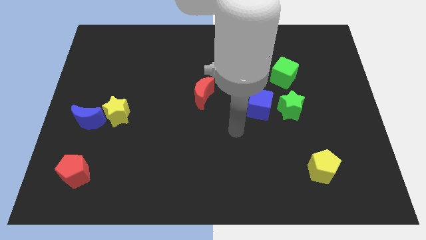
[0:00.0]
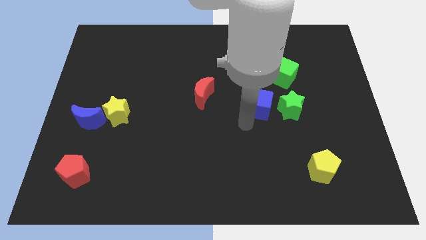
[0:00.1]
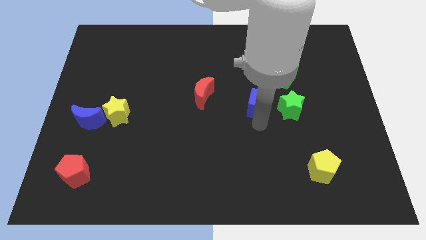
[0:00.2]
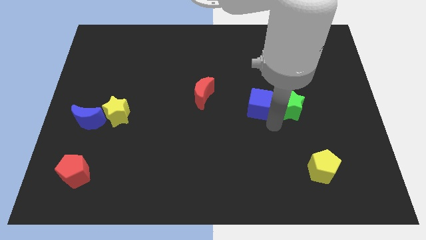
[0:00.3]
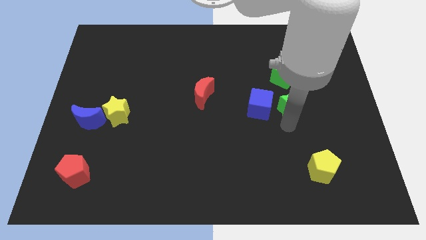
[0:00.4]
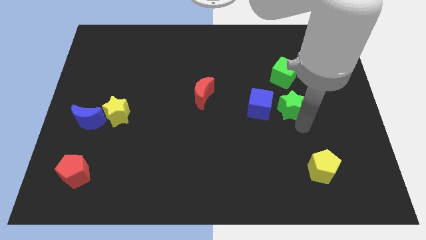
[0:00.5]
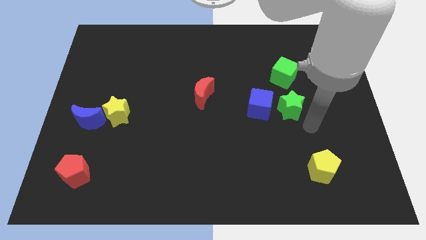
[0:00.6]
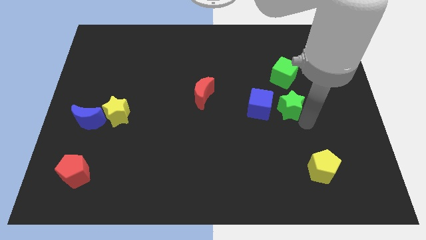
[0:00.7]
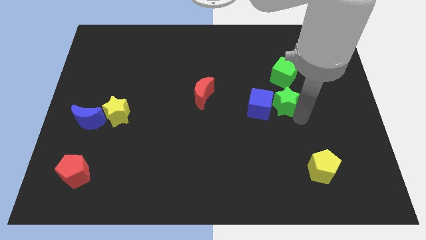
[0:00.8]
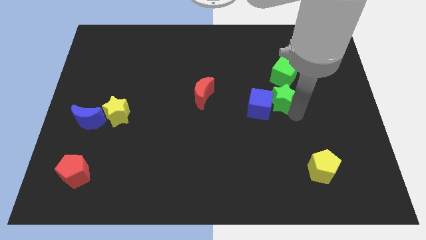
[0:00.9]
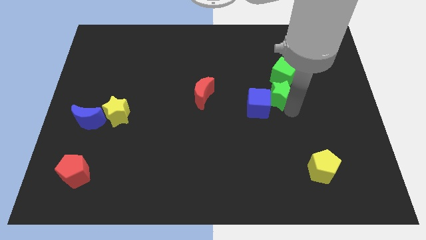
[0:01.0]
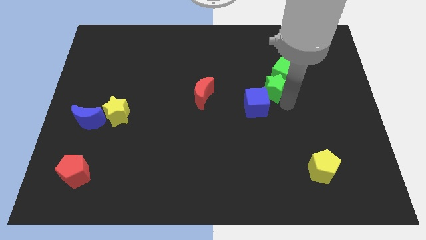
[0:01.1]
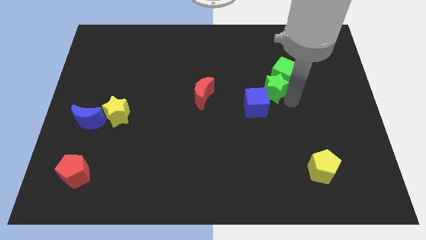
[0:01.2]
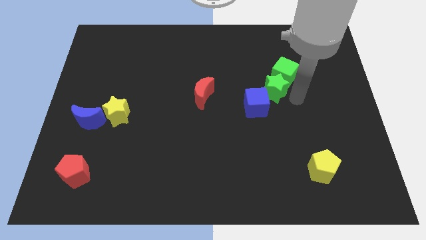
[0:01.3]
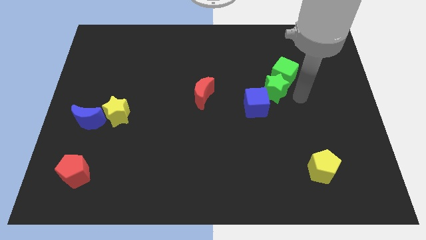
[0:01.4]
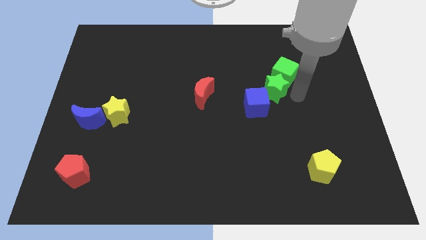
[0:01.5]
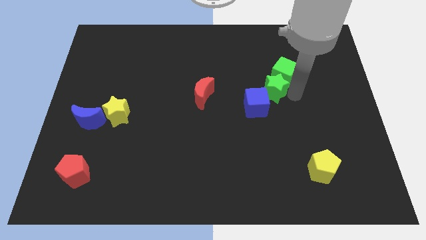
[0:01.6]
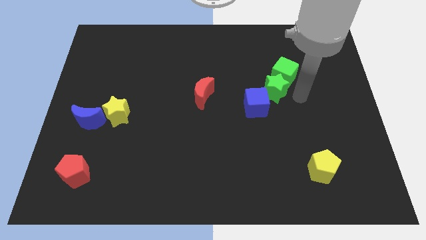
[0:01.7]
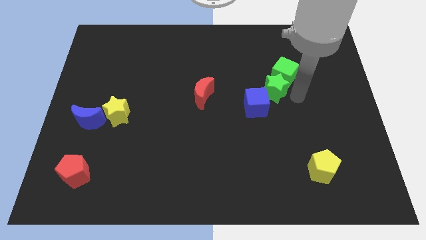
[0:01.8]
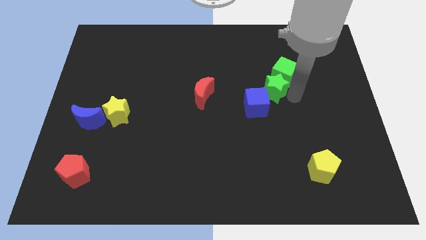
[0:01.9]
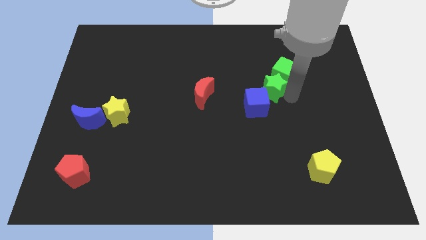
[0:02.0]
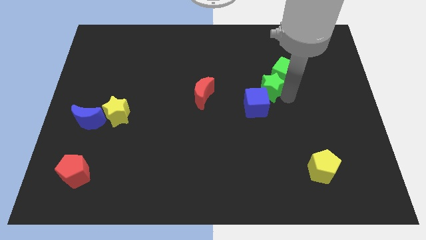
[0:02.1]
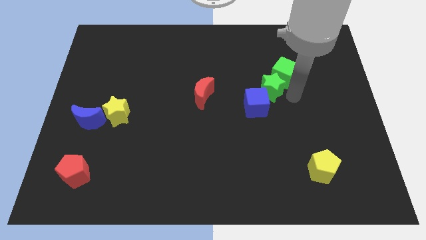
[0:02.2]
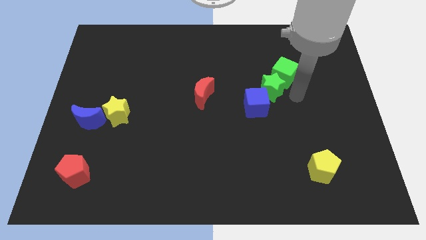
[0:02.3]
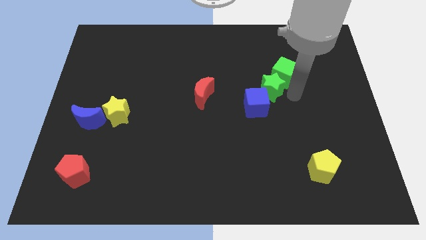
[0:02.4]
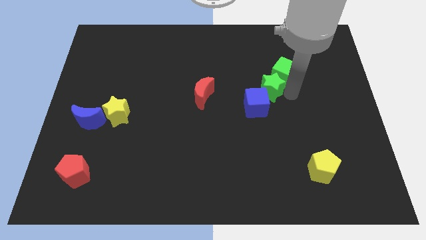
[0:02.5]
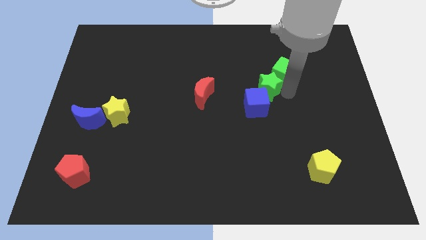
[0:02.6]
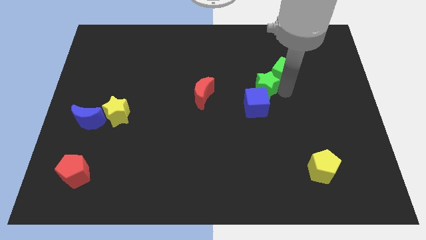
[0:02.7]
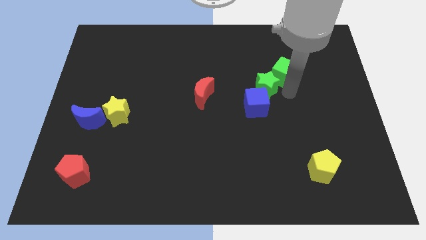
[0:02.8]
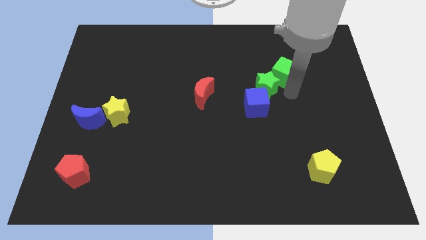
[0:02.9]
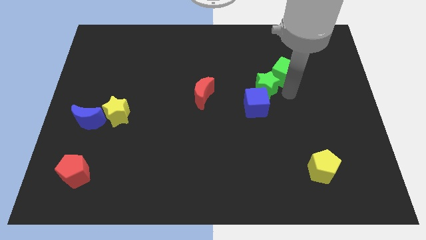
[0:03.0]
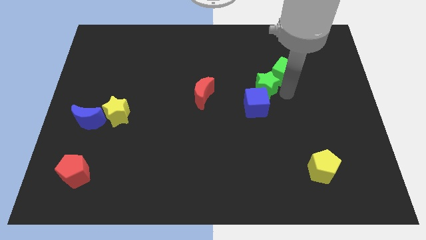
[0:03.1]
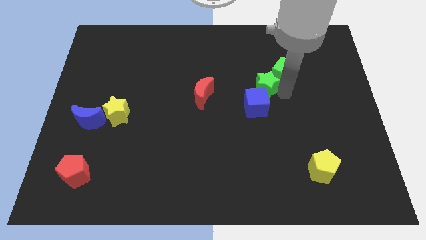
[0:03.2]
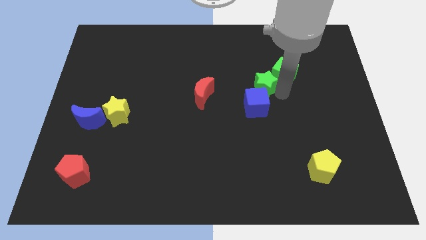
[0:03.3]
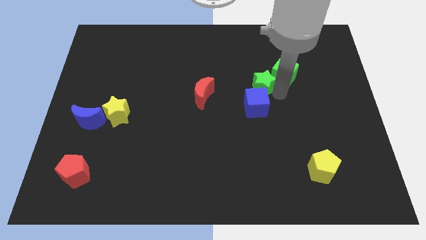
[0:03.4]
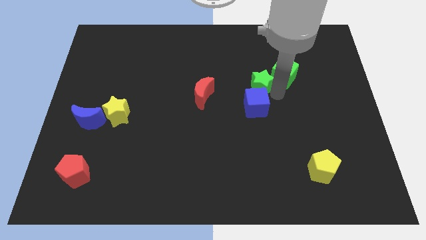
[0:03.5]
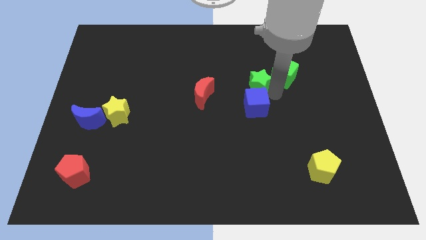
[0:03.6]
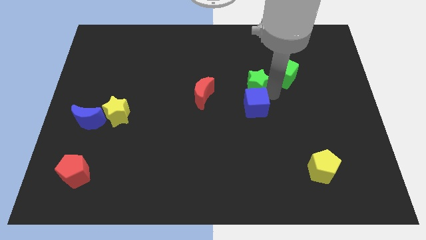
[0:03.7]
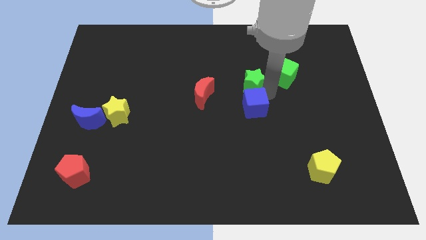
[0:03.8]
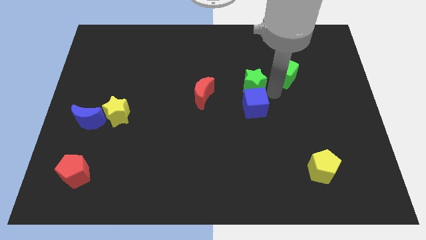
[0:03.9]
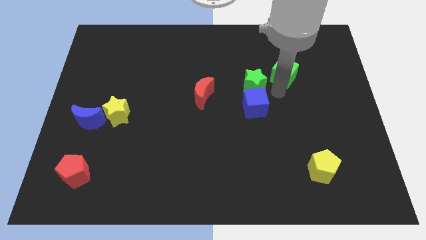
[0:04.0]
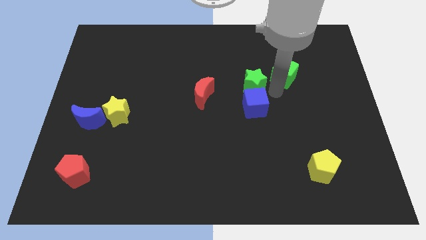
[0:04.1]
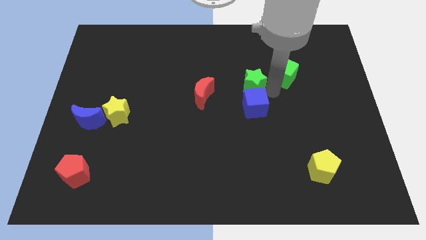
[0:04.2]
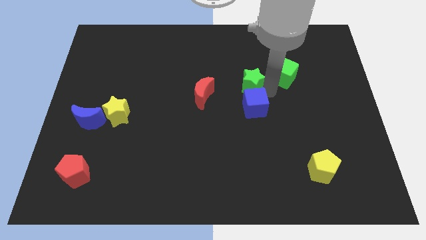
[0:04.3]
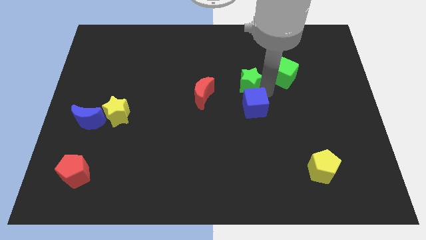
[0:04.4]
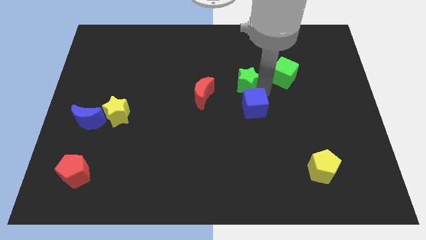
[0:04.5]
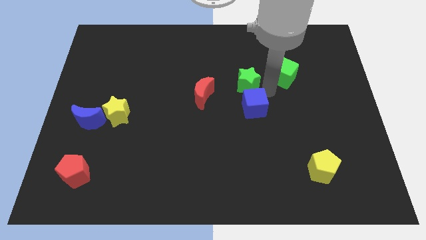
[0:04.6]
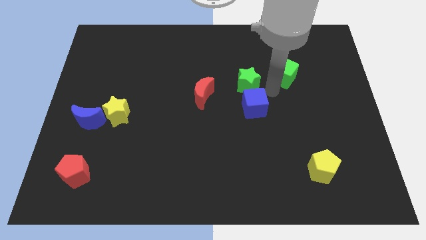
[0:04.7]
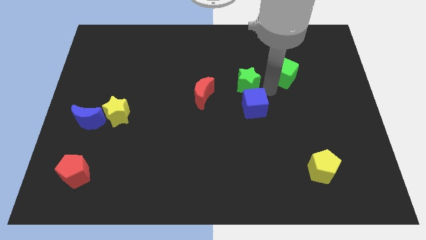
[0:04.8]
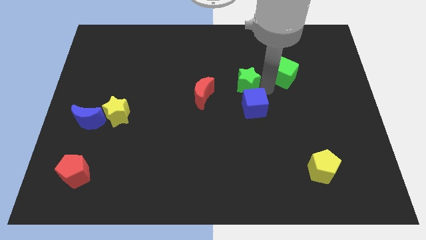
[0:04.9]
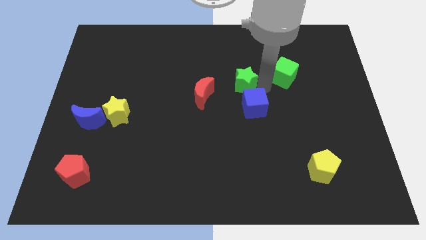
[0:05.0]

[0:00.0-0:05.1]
slide the green star diagonally up and to the right of the red moon

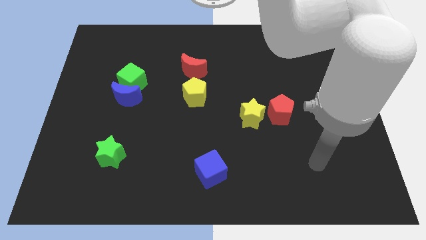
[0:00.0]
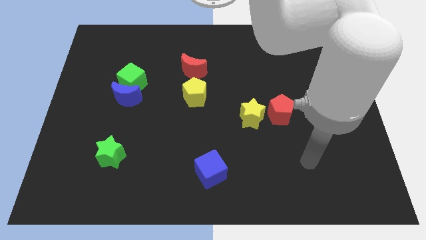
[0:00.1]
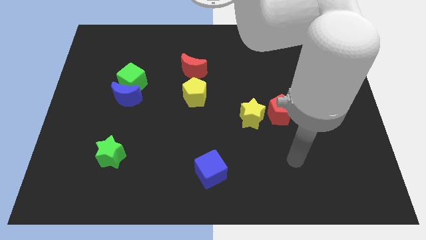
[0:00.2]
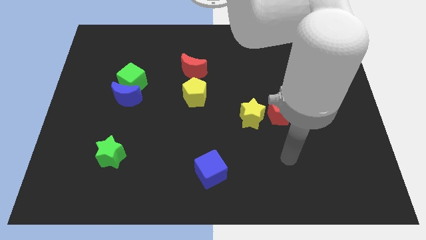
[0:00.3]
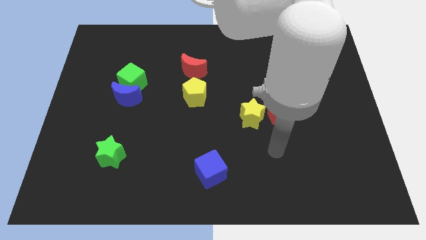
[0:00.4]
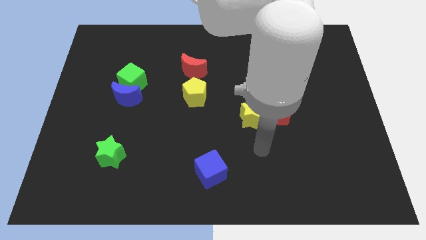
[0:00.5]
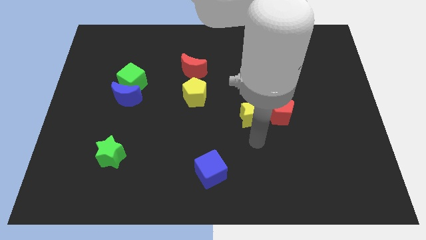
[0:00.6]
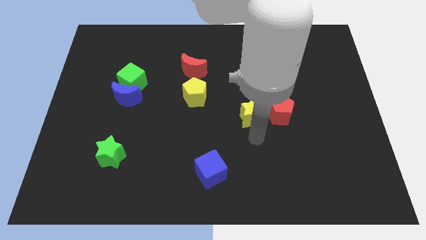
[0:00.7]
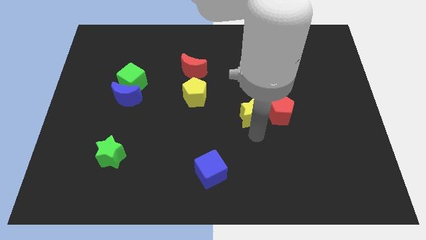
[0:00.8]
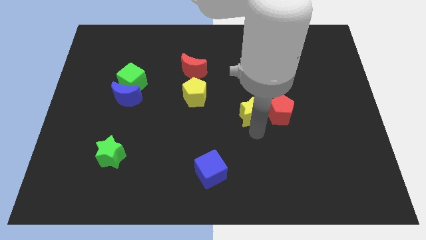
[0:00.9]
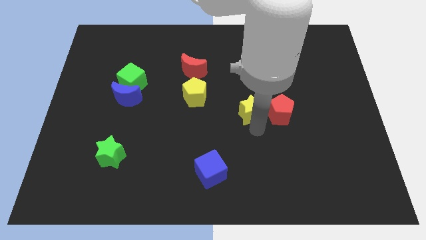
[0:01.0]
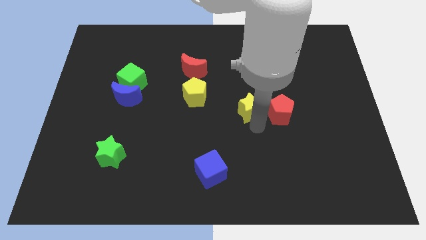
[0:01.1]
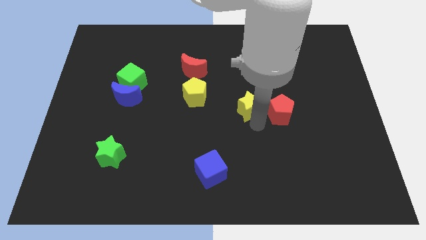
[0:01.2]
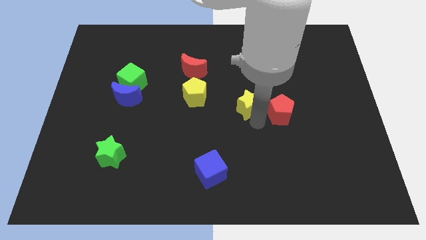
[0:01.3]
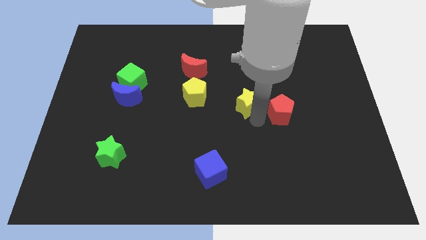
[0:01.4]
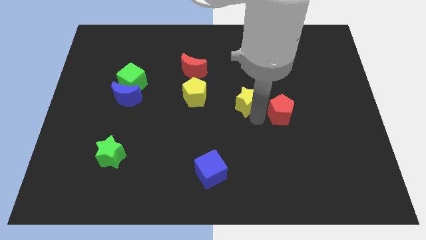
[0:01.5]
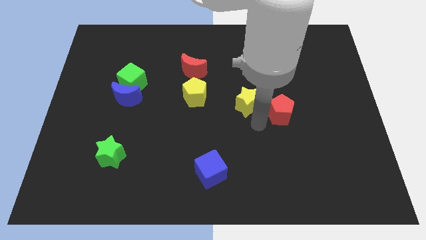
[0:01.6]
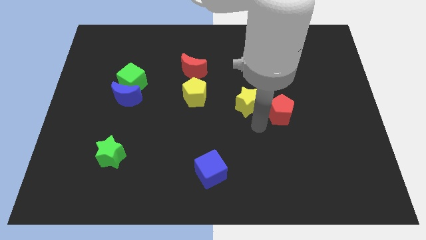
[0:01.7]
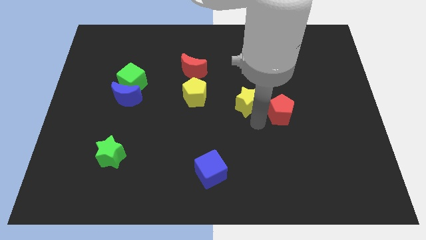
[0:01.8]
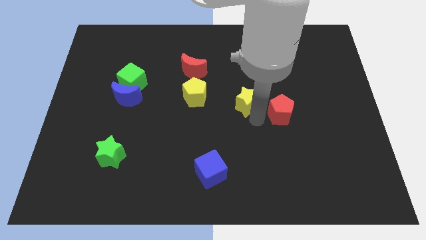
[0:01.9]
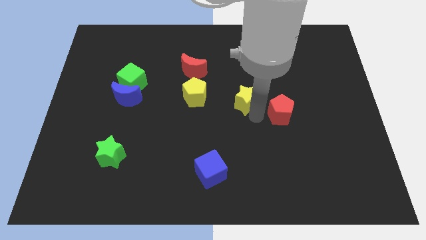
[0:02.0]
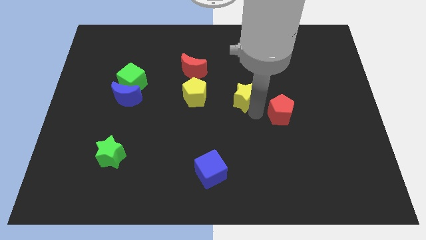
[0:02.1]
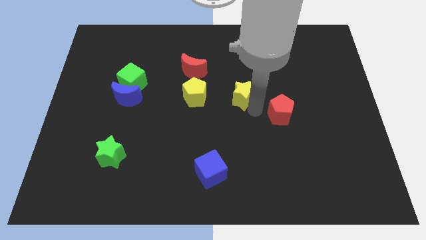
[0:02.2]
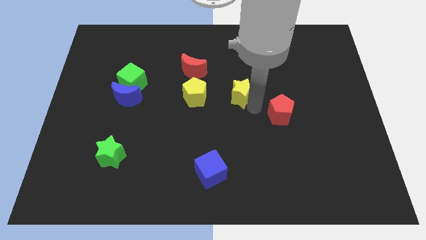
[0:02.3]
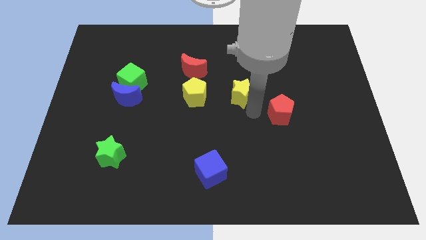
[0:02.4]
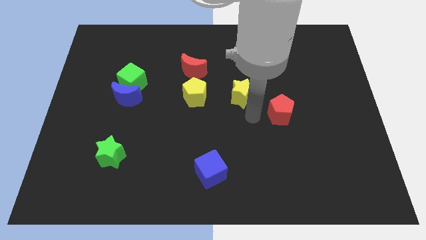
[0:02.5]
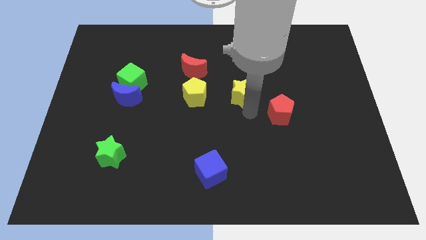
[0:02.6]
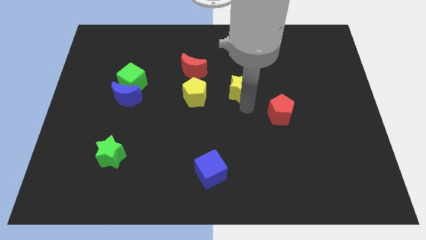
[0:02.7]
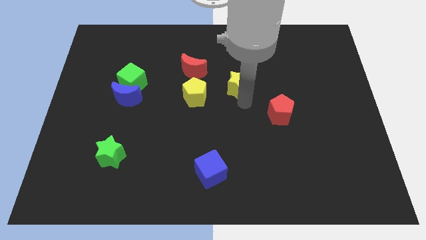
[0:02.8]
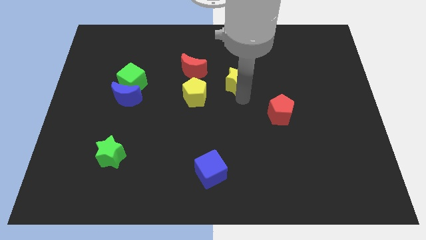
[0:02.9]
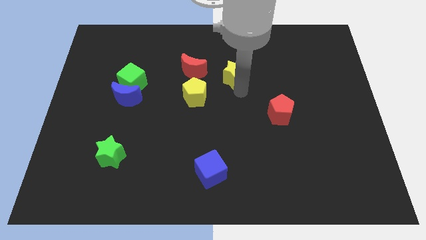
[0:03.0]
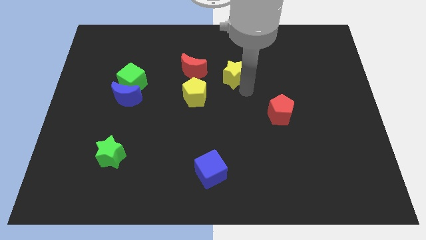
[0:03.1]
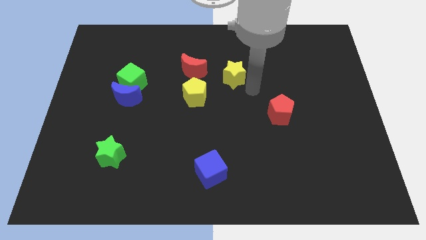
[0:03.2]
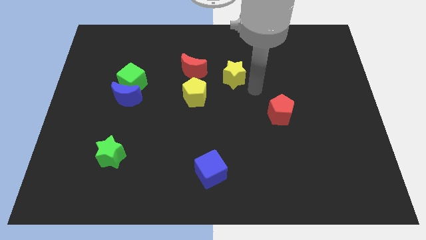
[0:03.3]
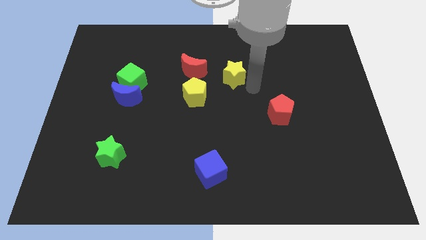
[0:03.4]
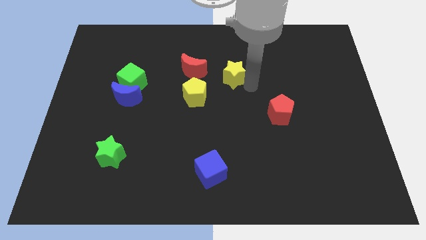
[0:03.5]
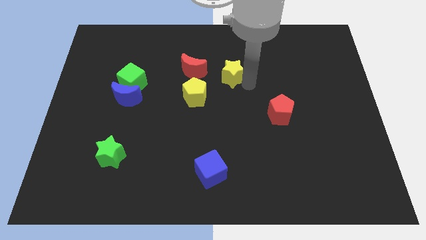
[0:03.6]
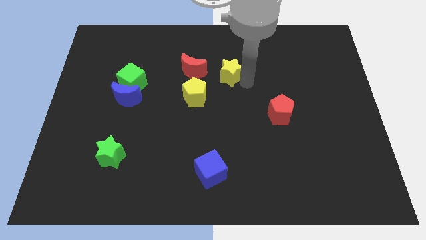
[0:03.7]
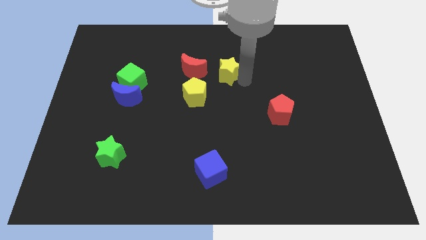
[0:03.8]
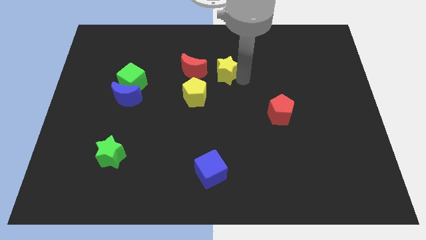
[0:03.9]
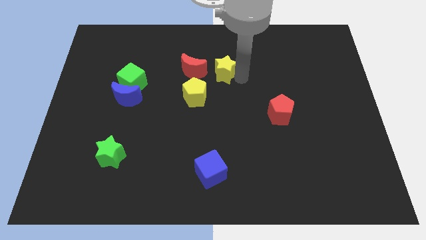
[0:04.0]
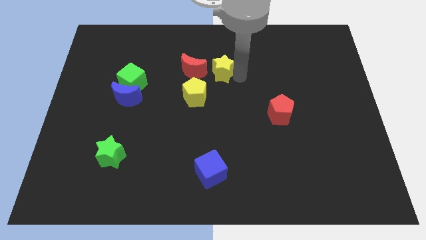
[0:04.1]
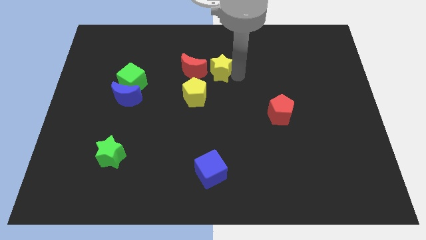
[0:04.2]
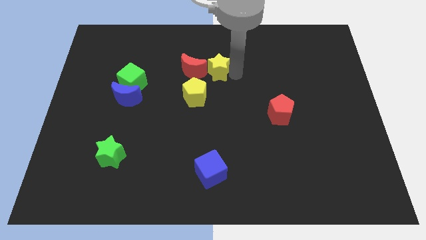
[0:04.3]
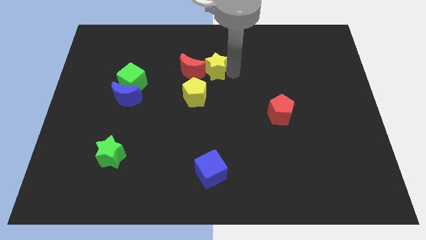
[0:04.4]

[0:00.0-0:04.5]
move the yellow star to the top side of the yellow pentagon
